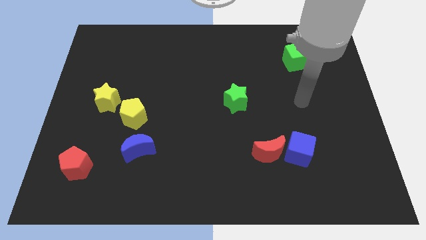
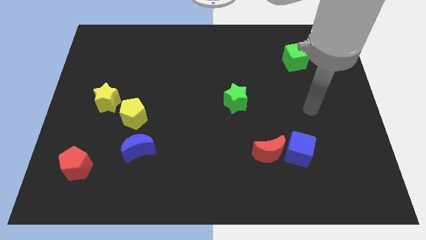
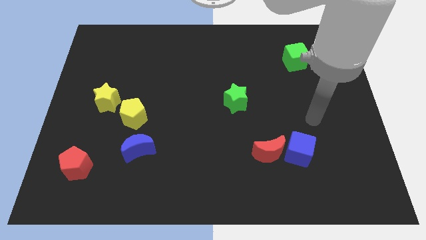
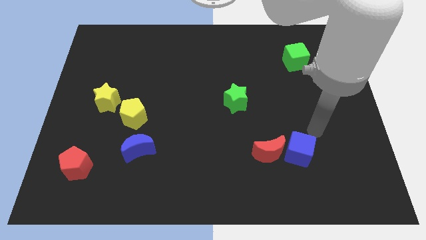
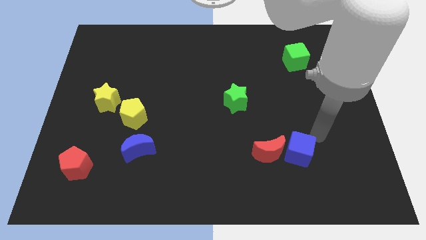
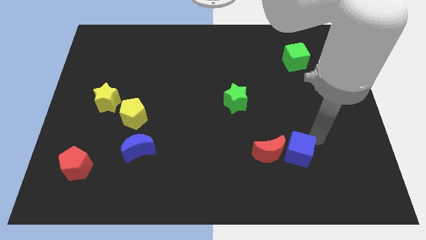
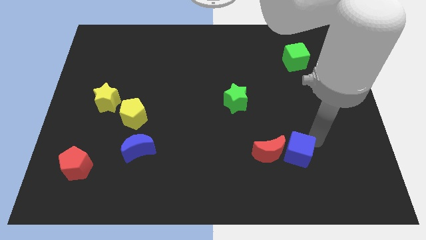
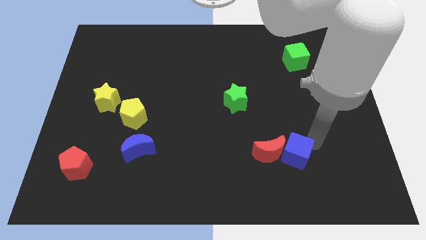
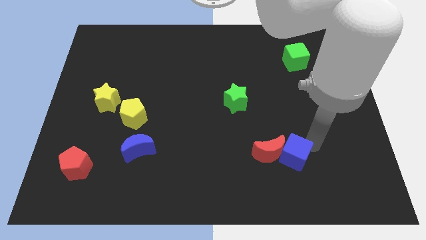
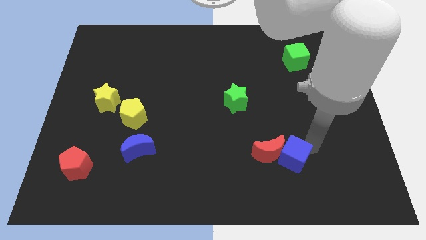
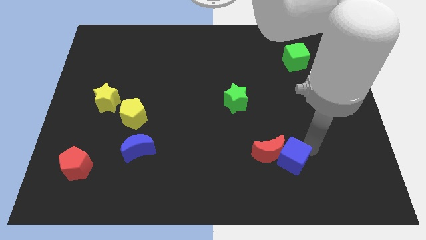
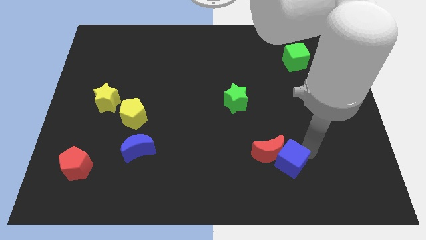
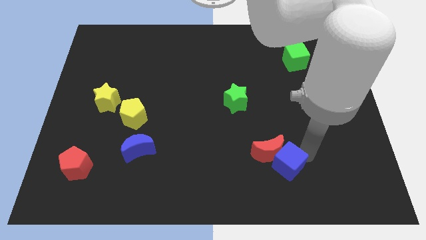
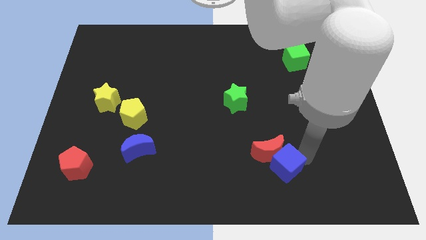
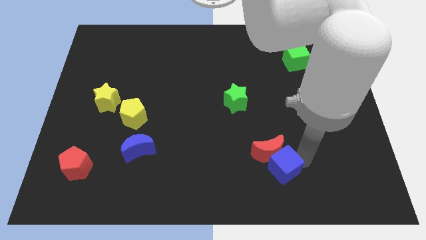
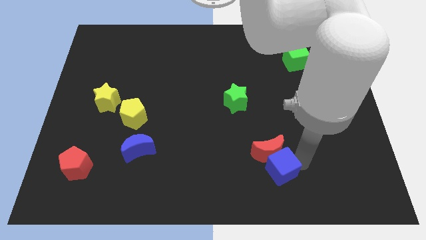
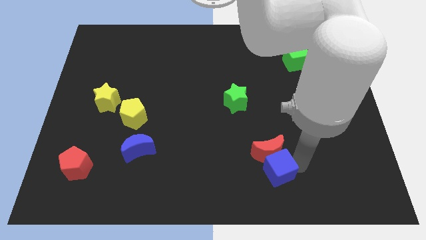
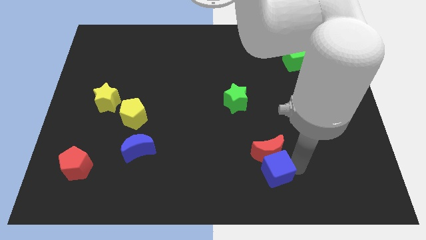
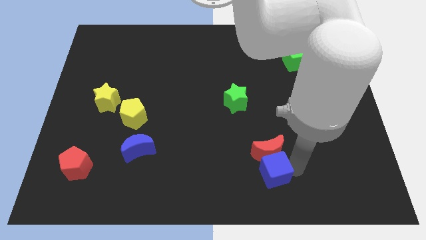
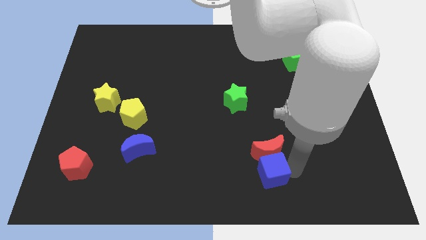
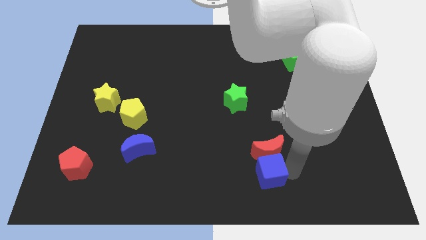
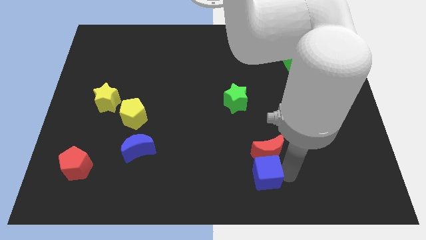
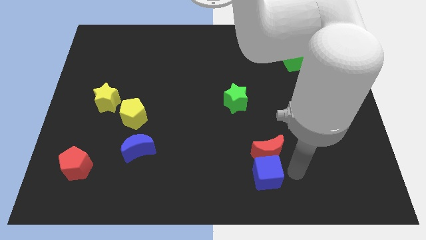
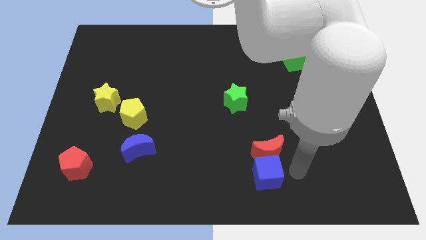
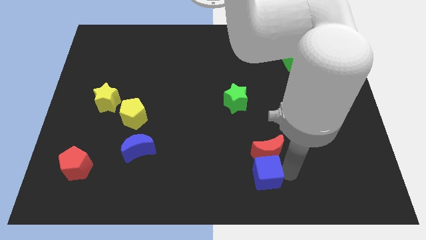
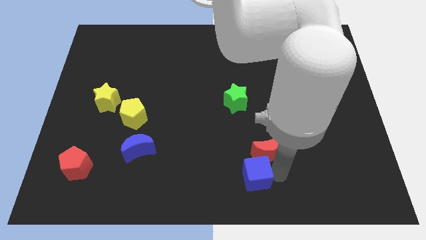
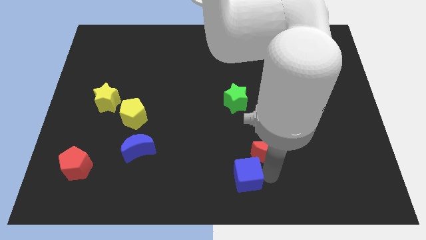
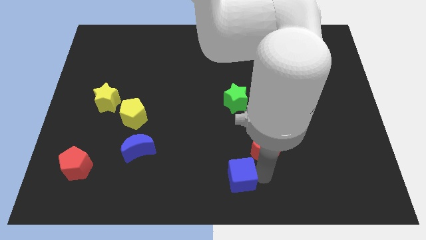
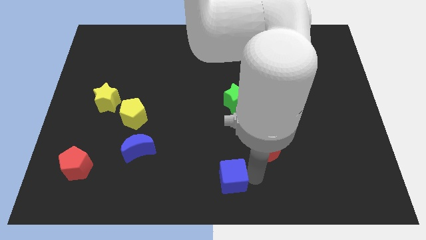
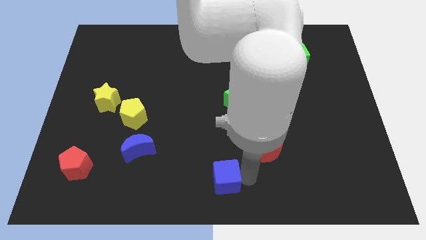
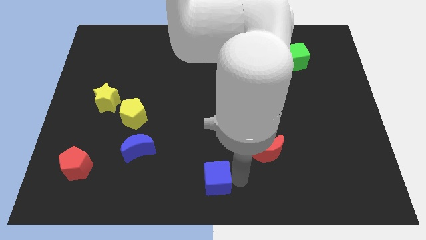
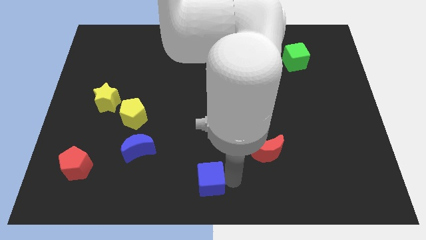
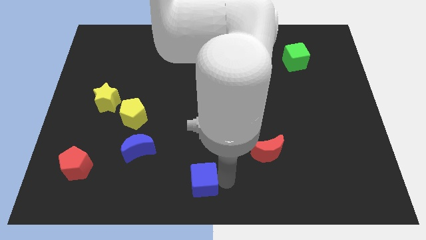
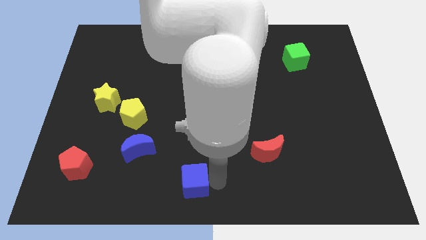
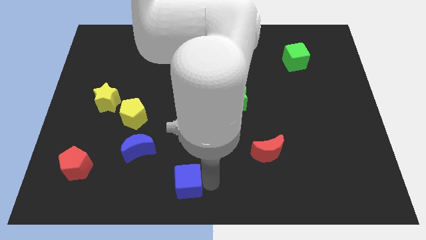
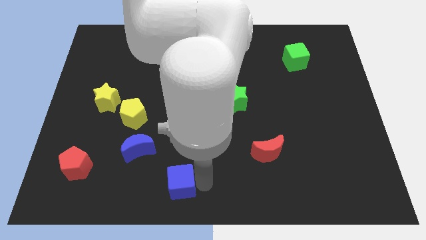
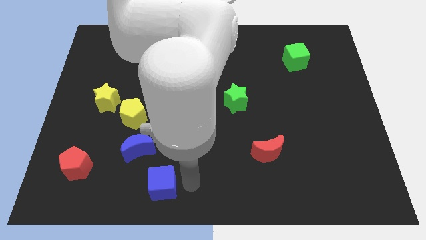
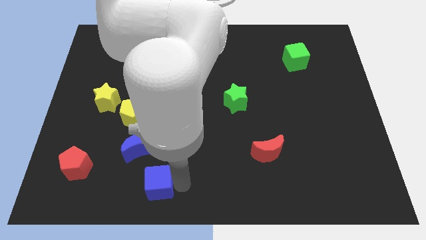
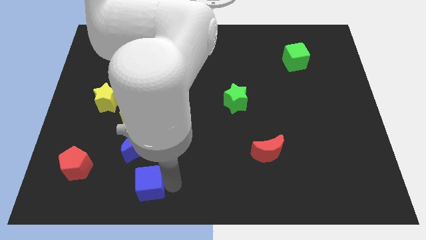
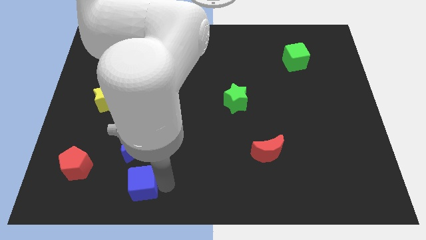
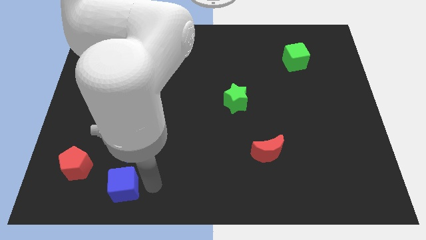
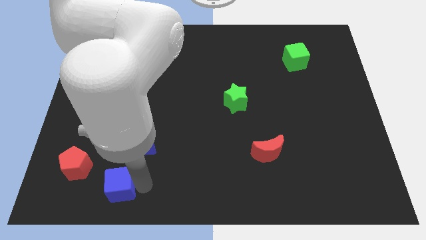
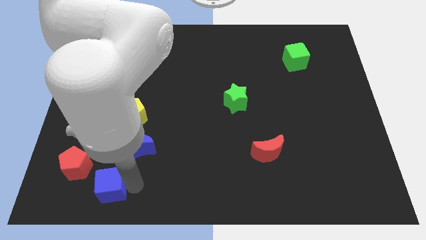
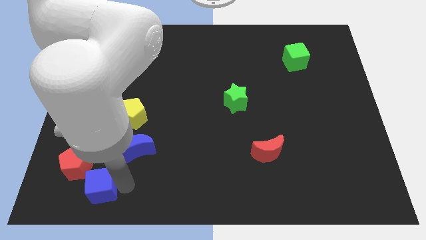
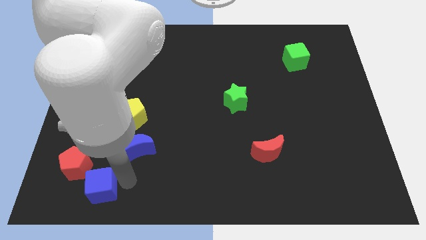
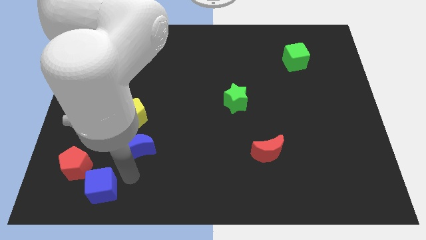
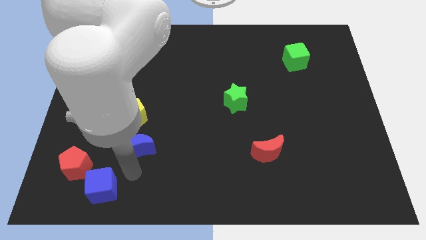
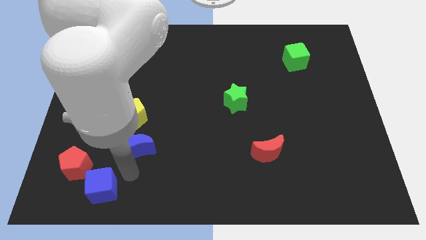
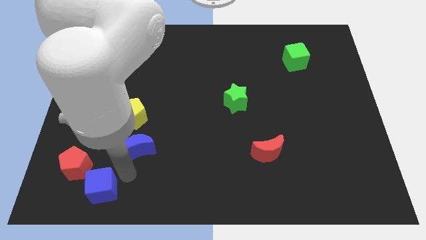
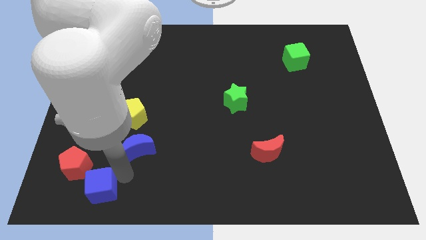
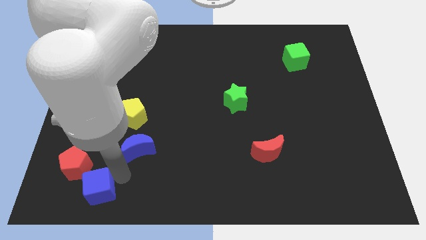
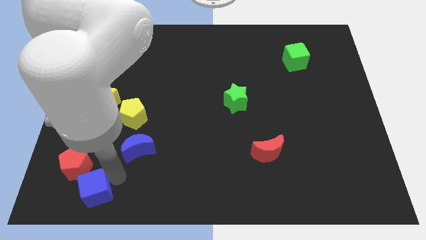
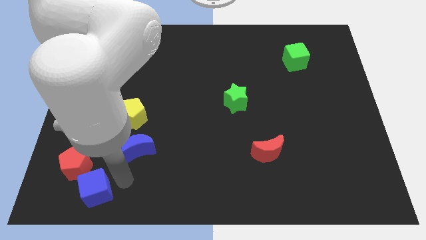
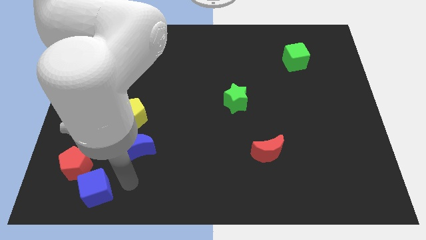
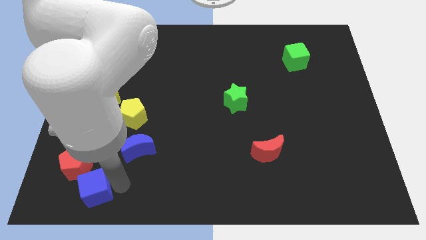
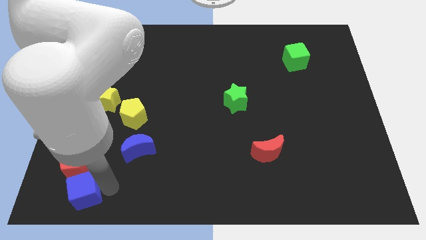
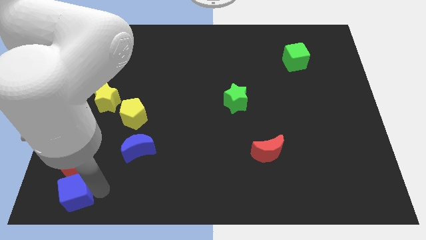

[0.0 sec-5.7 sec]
slide the blue cube to the bottom left corner

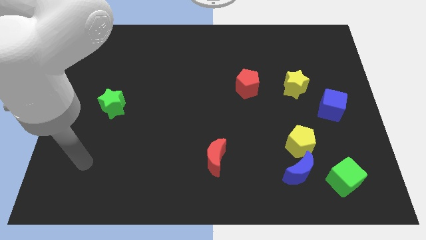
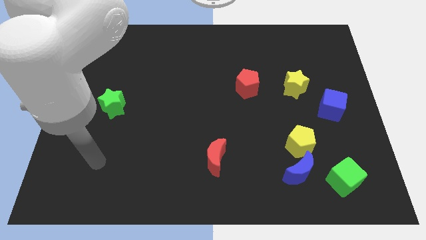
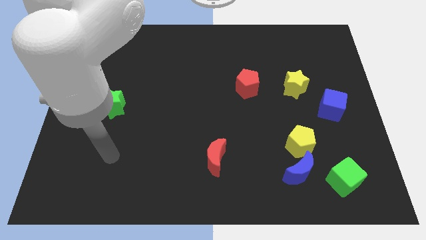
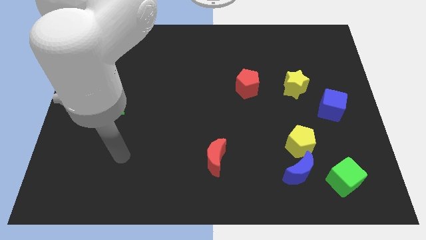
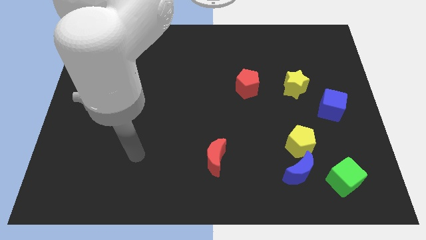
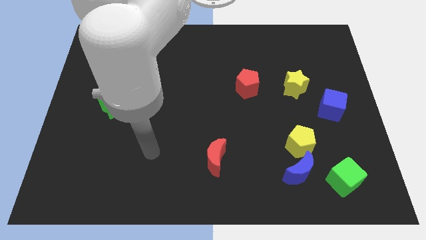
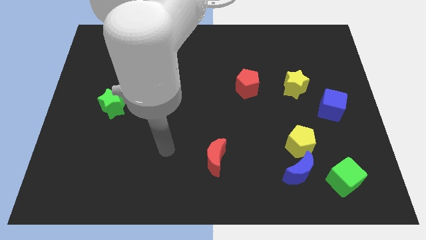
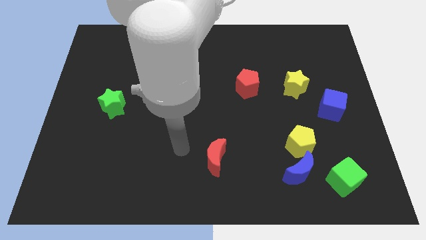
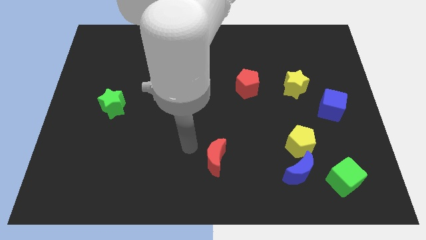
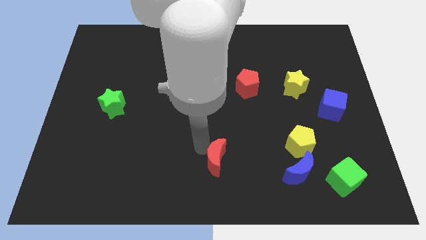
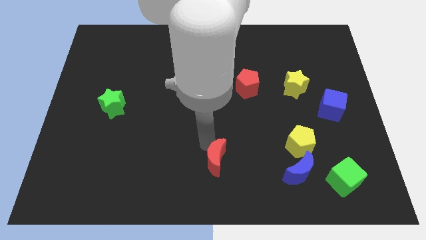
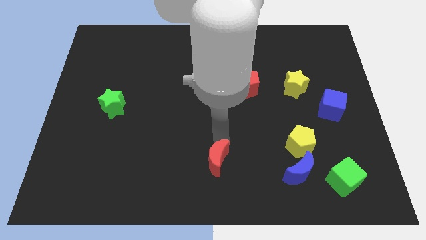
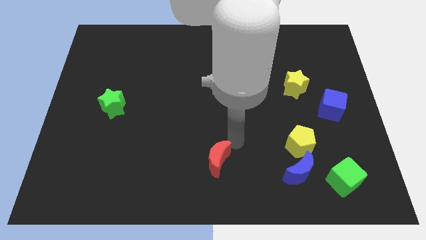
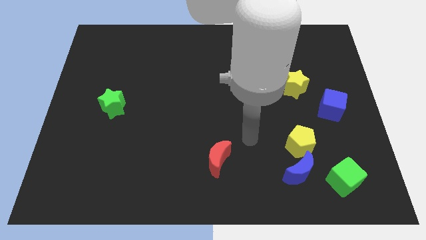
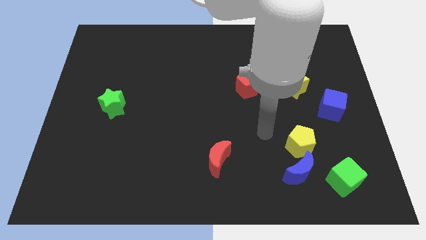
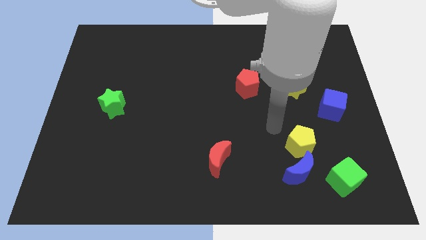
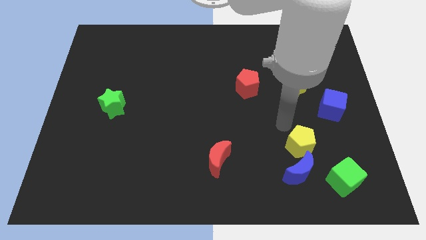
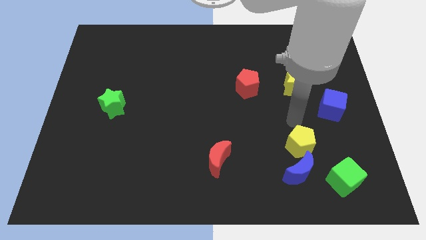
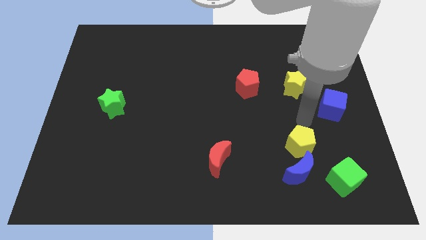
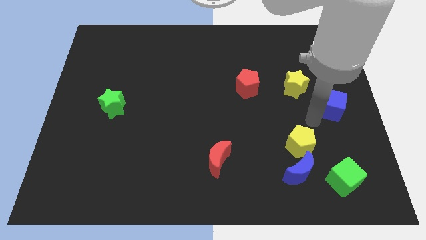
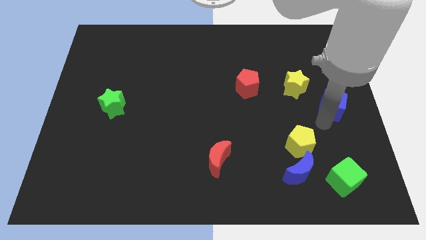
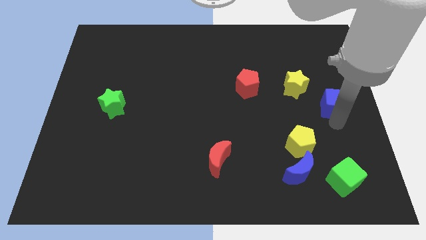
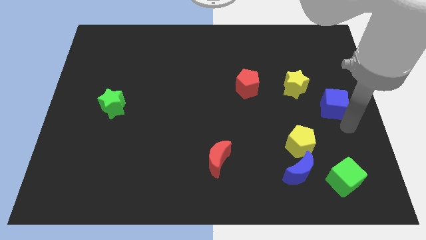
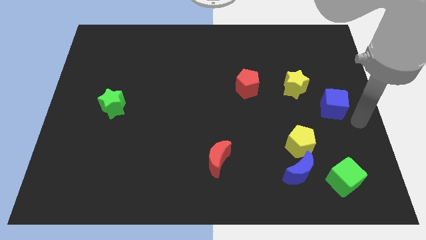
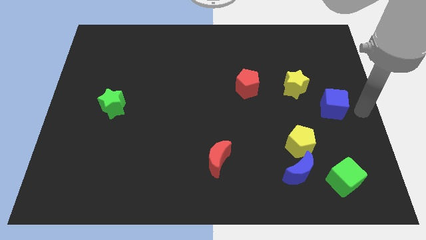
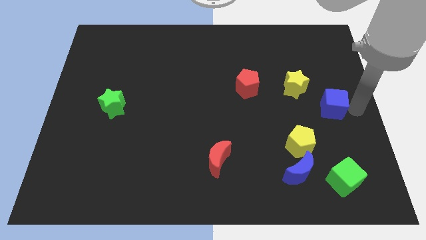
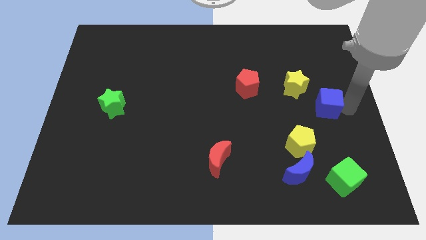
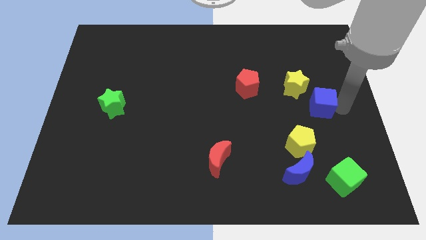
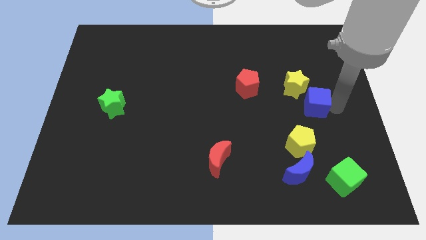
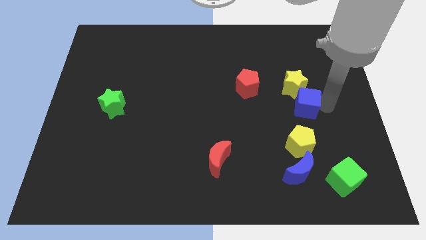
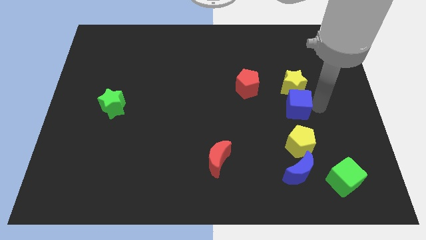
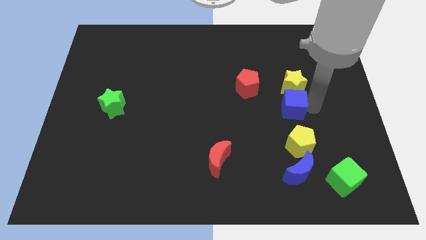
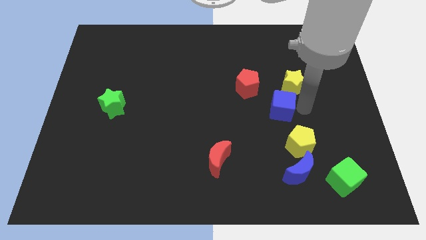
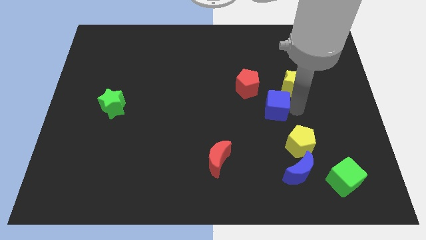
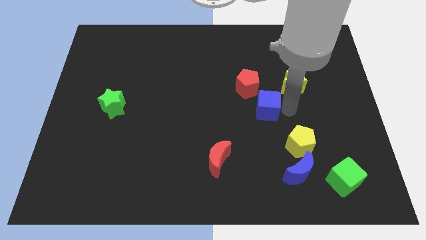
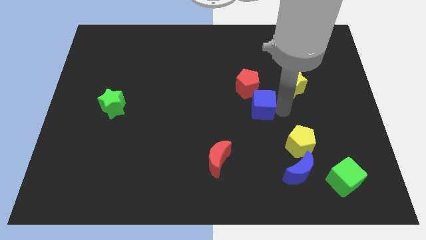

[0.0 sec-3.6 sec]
slide the blue cube to the center
